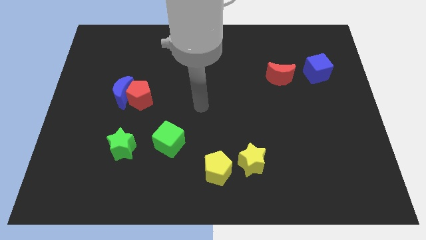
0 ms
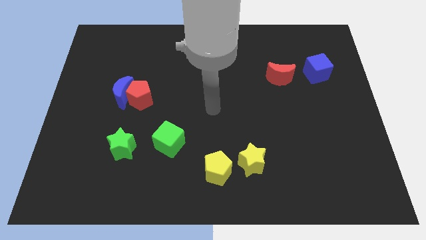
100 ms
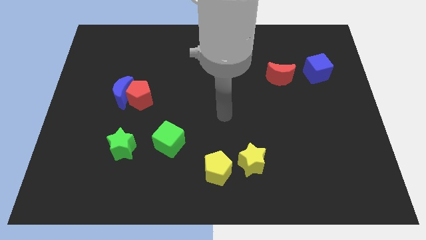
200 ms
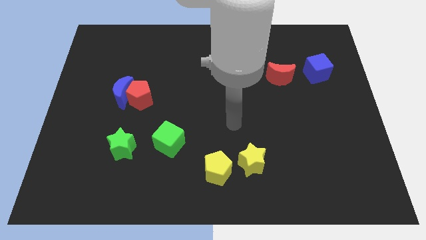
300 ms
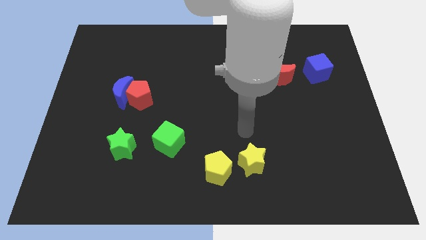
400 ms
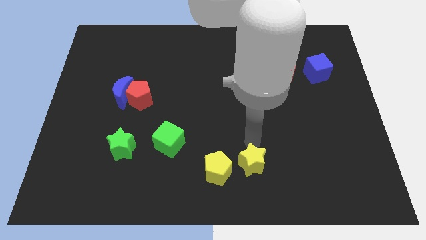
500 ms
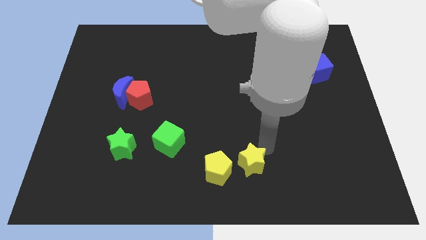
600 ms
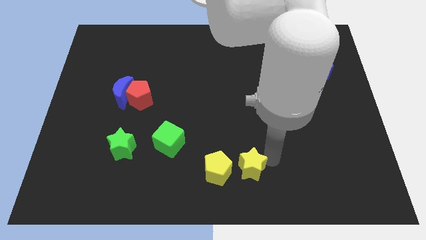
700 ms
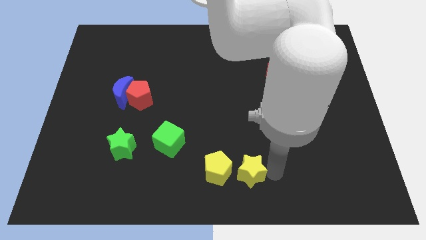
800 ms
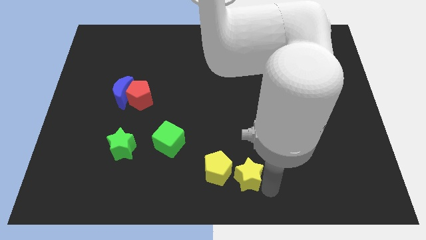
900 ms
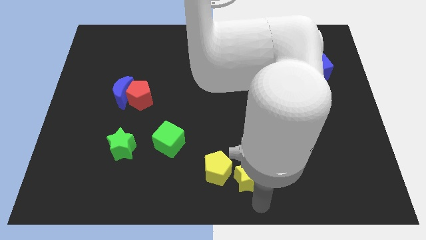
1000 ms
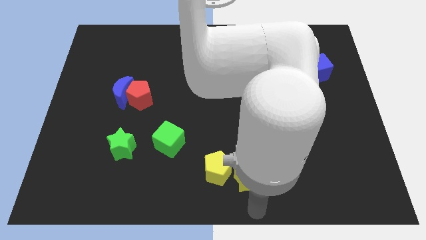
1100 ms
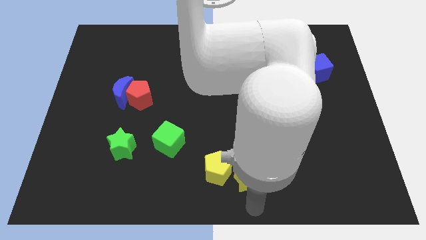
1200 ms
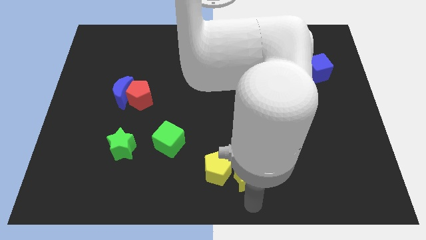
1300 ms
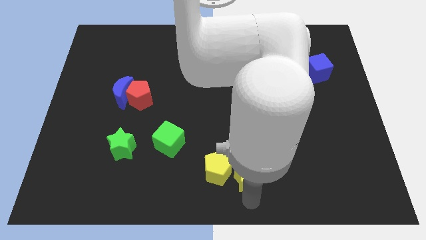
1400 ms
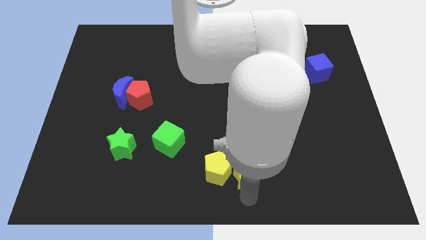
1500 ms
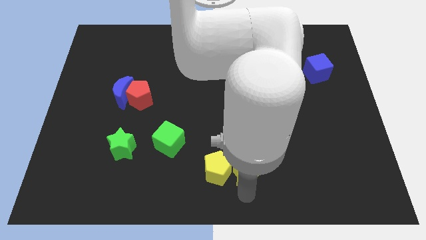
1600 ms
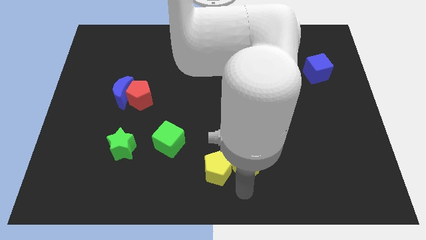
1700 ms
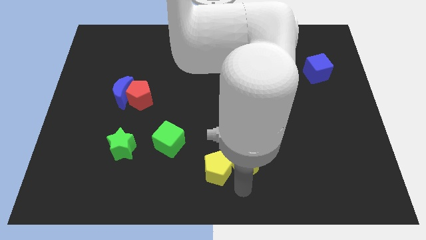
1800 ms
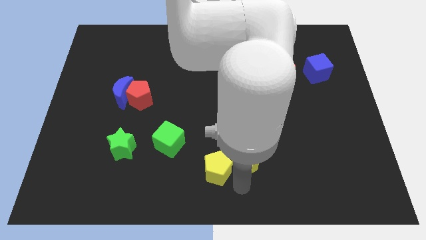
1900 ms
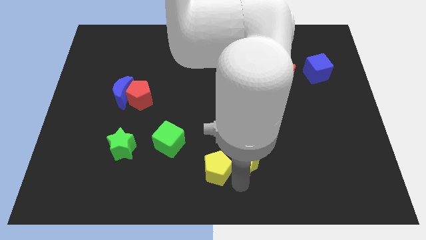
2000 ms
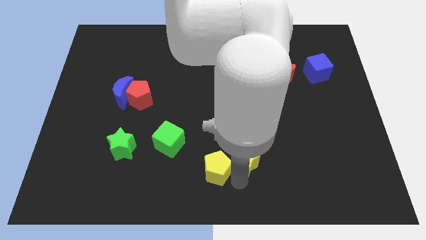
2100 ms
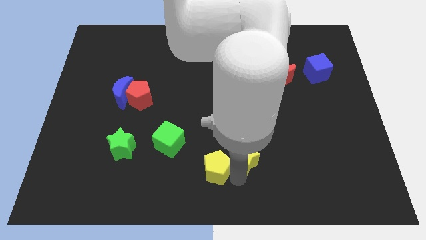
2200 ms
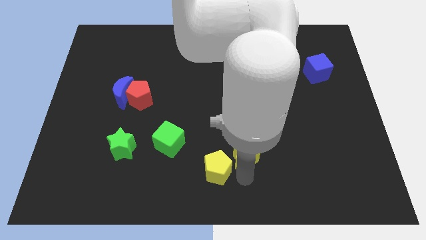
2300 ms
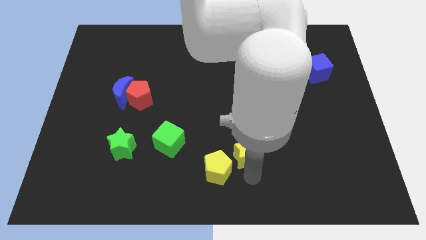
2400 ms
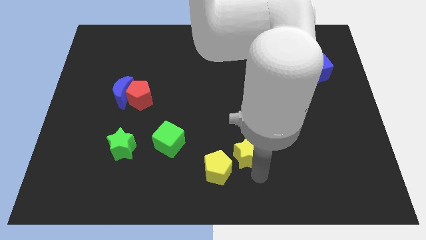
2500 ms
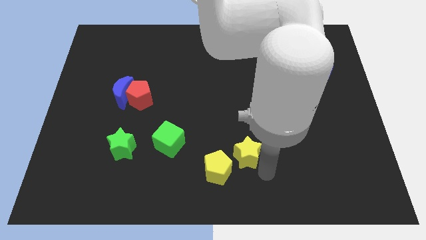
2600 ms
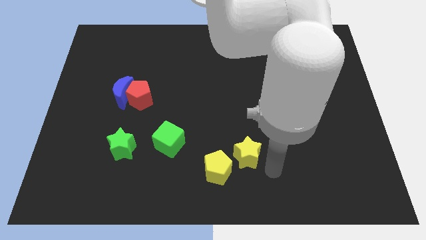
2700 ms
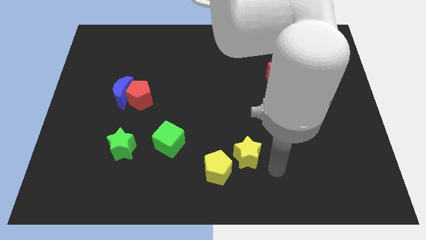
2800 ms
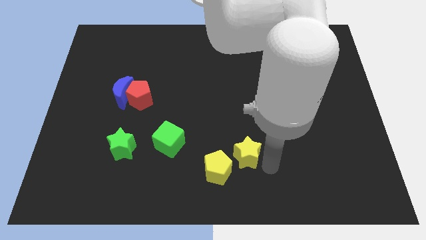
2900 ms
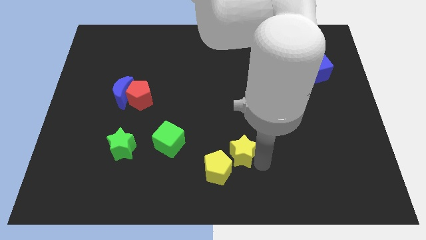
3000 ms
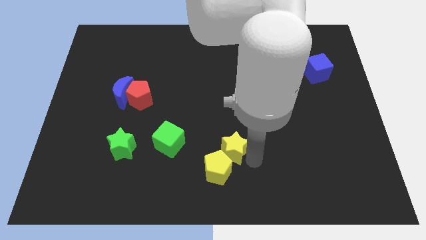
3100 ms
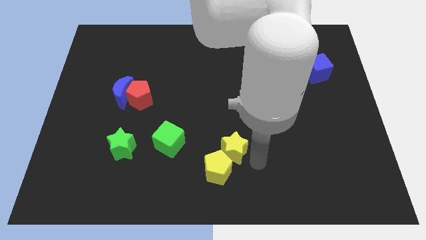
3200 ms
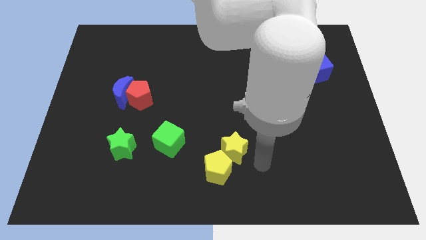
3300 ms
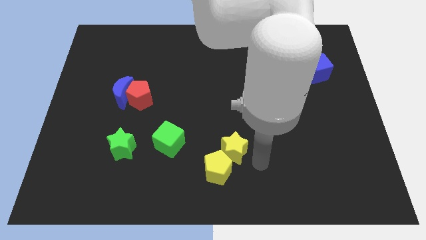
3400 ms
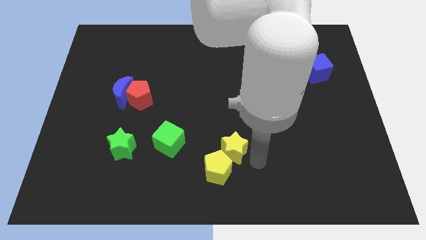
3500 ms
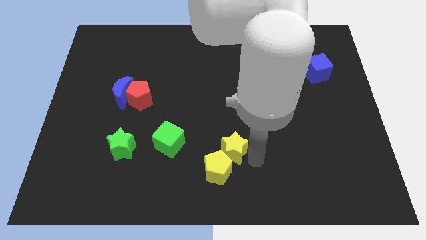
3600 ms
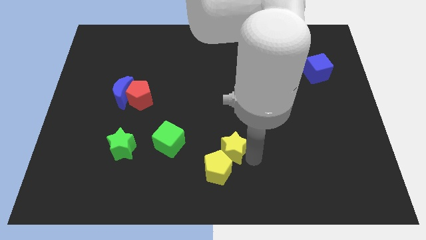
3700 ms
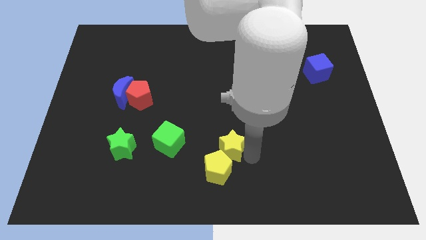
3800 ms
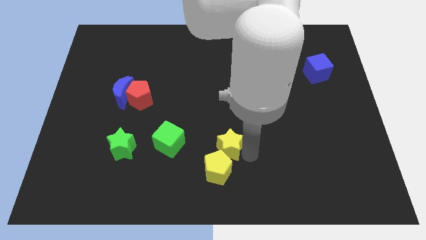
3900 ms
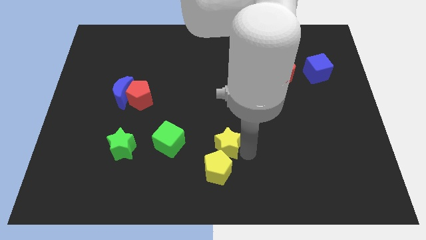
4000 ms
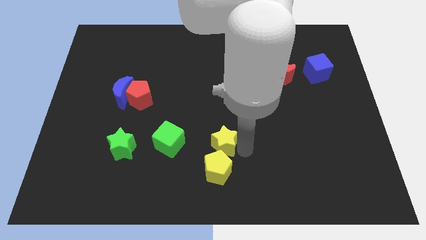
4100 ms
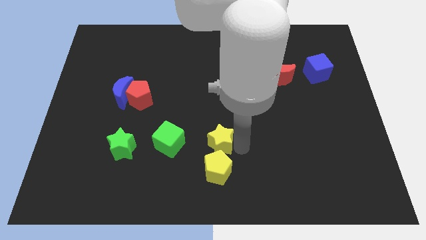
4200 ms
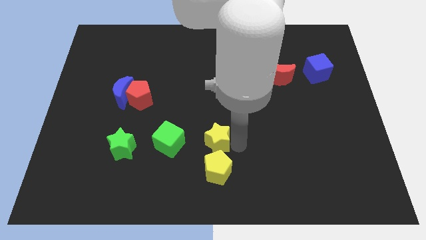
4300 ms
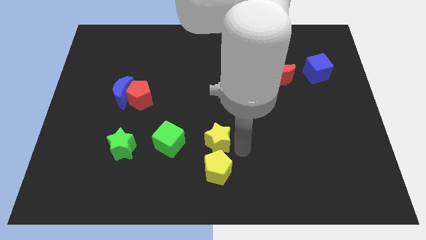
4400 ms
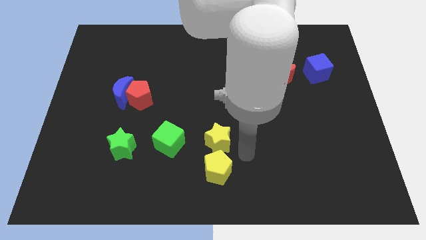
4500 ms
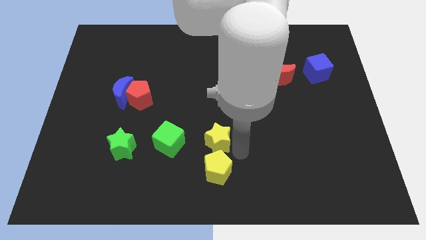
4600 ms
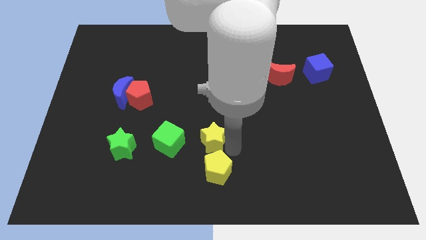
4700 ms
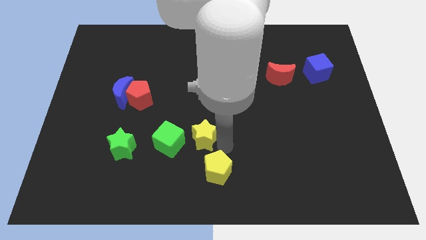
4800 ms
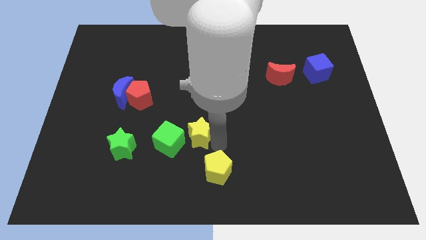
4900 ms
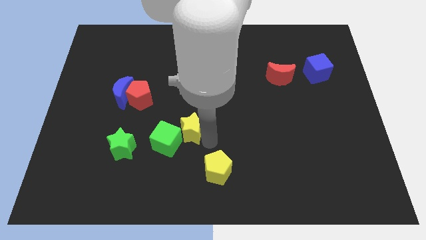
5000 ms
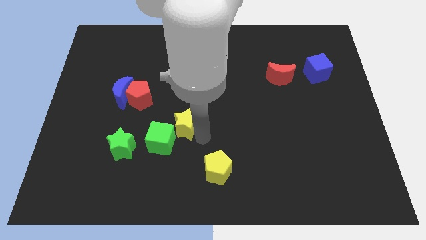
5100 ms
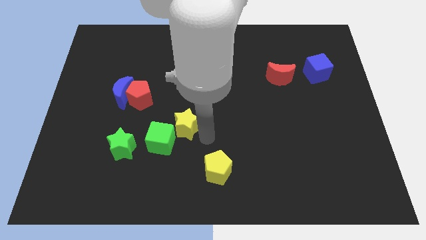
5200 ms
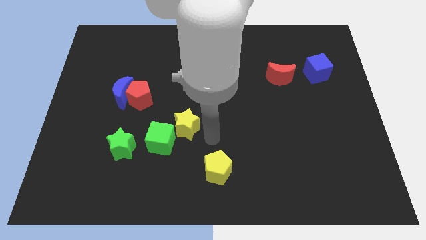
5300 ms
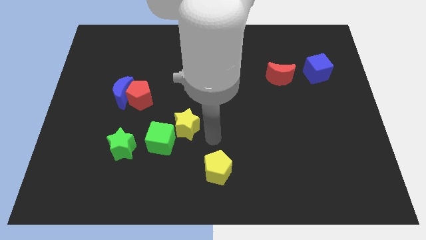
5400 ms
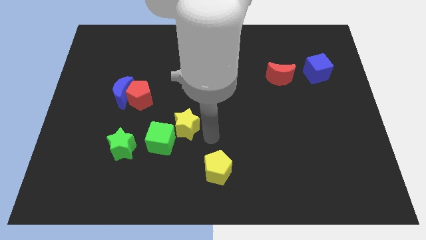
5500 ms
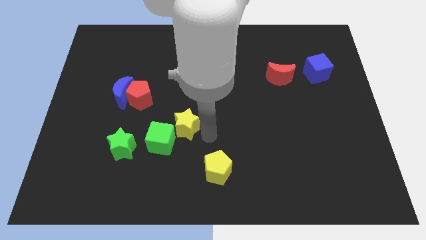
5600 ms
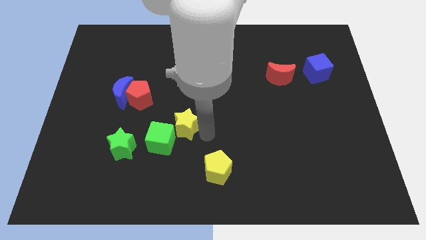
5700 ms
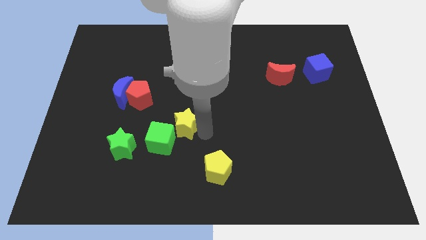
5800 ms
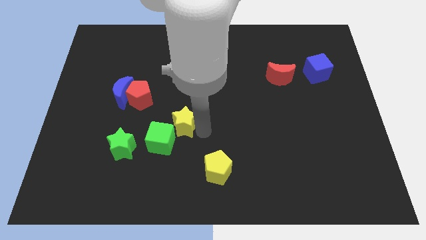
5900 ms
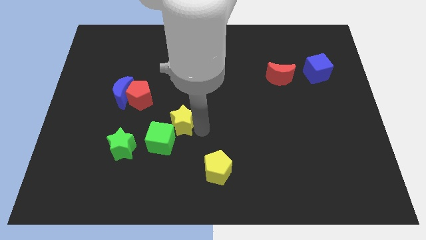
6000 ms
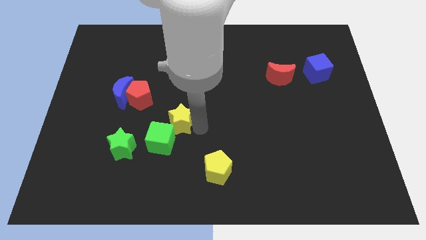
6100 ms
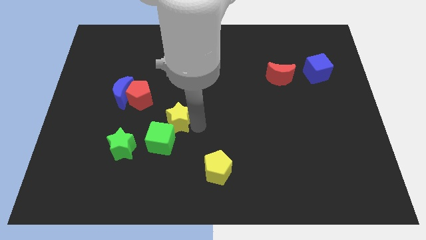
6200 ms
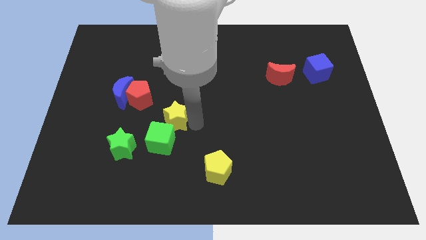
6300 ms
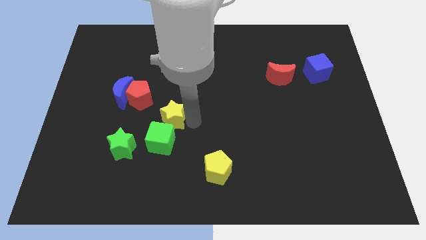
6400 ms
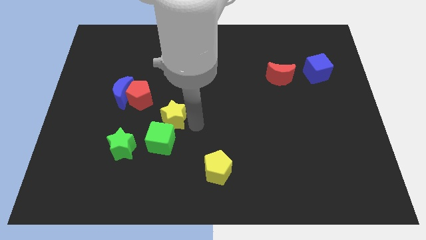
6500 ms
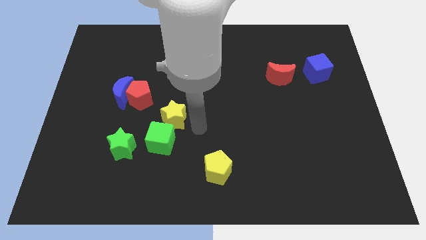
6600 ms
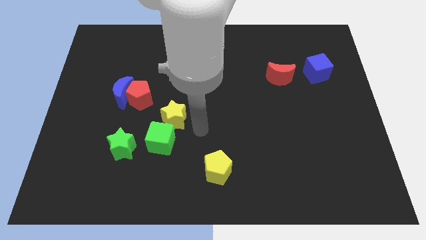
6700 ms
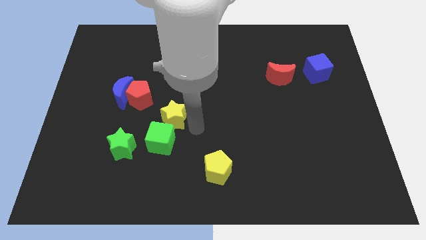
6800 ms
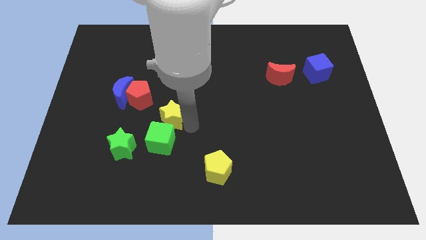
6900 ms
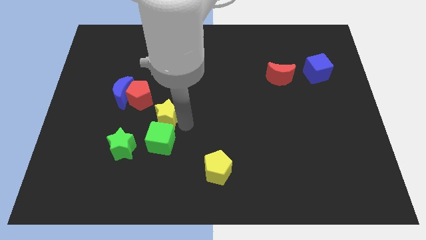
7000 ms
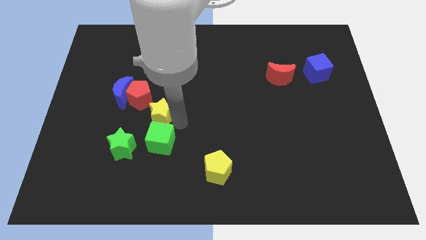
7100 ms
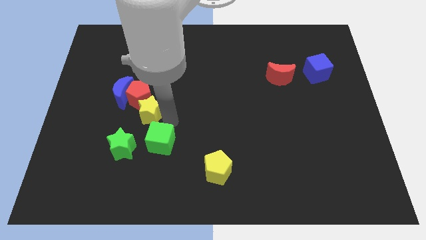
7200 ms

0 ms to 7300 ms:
slide the yellow star to the red pentagon
